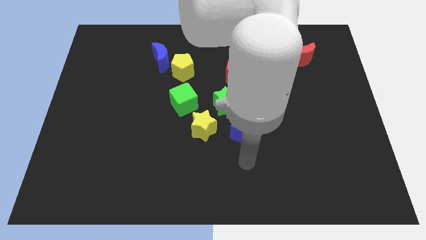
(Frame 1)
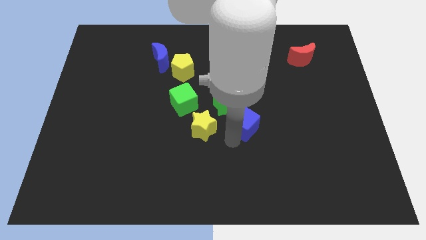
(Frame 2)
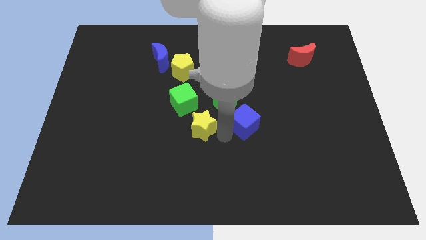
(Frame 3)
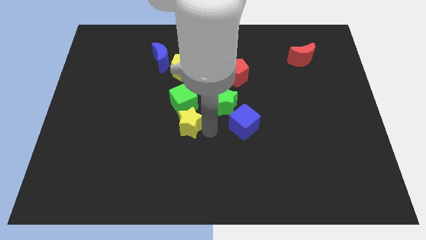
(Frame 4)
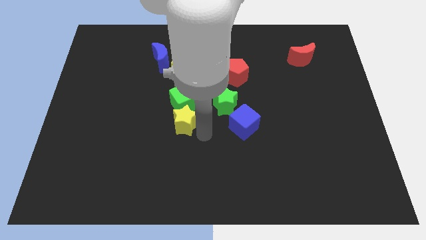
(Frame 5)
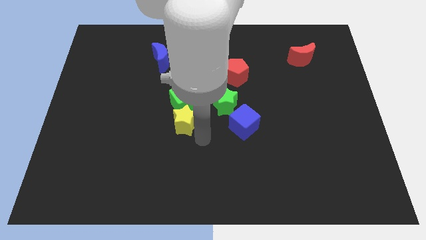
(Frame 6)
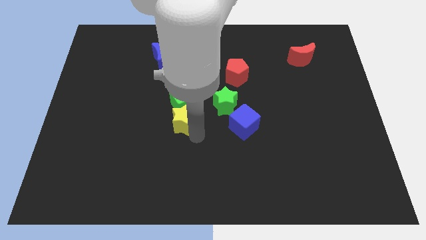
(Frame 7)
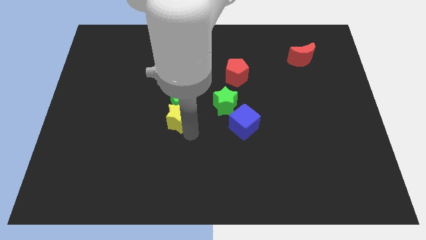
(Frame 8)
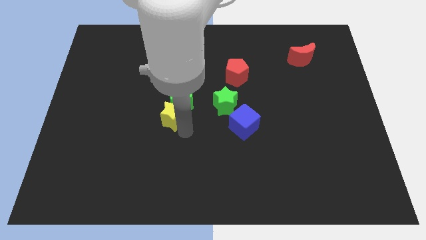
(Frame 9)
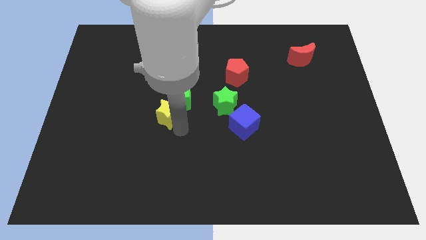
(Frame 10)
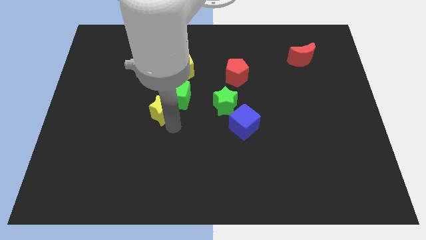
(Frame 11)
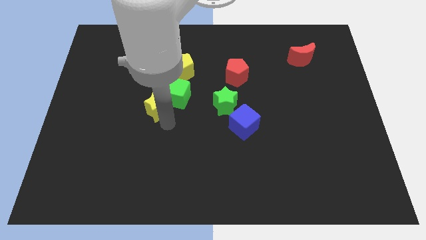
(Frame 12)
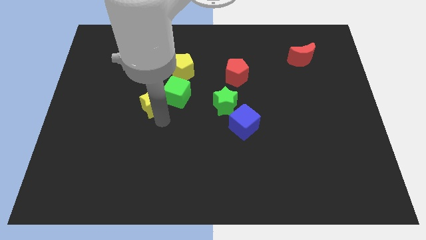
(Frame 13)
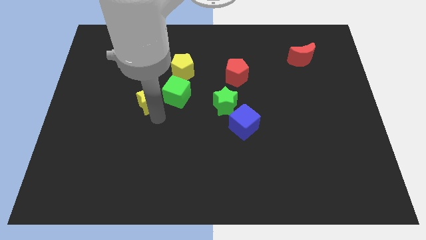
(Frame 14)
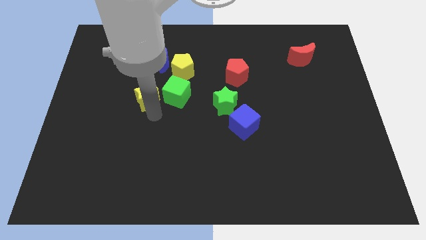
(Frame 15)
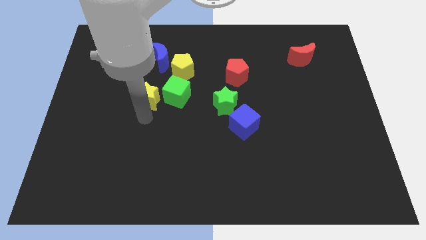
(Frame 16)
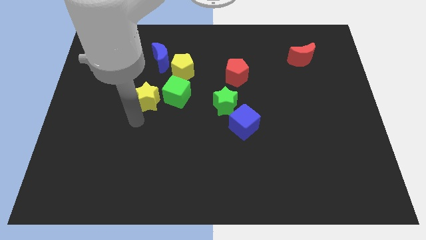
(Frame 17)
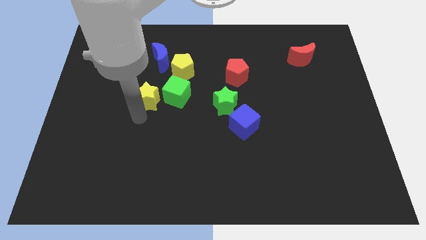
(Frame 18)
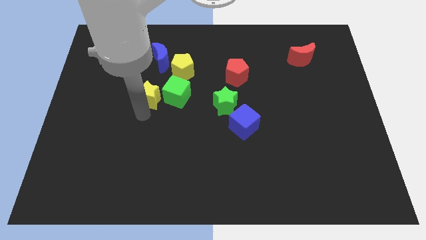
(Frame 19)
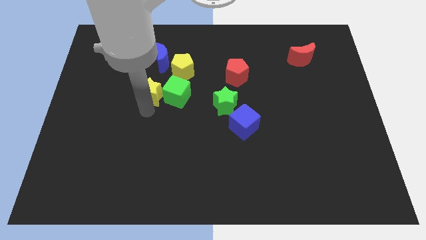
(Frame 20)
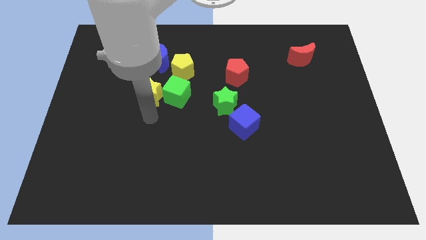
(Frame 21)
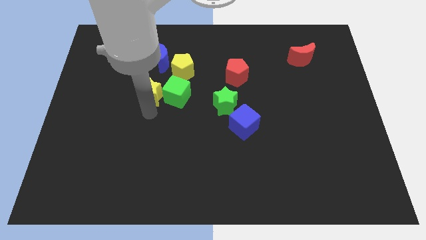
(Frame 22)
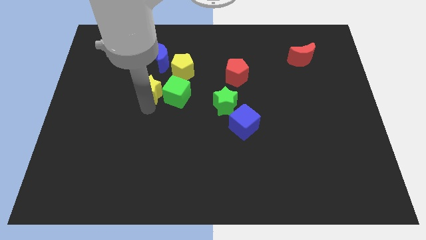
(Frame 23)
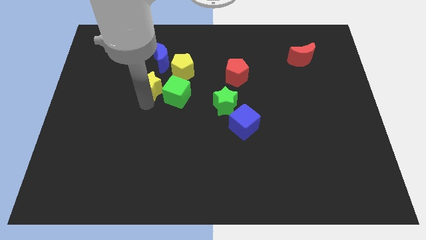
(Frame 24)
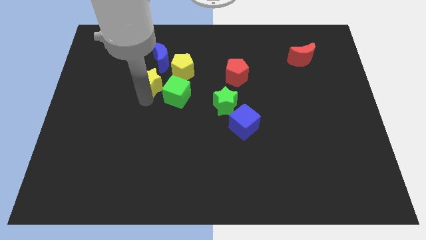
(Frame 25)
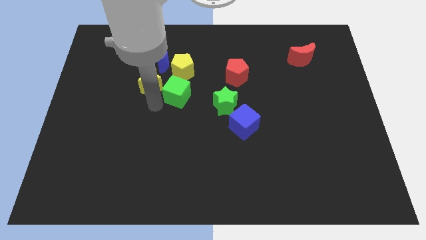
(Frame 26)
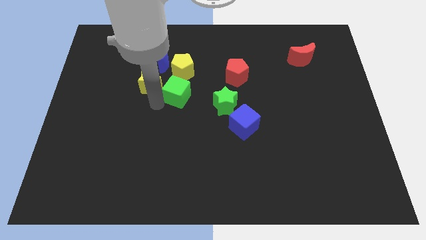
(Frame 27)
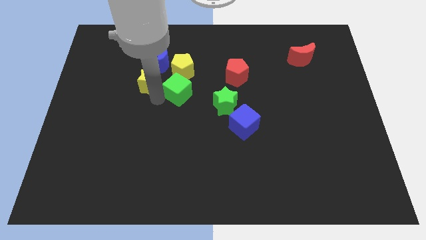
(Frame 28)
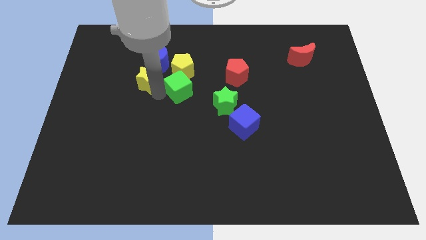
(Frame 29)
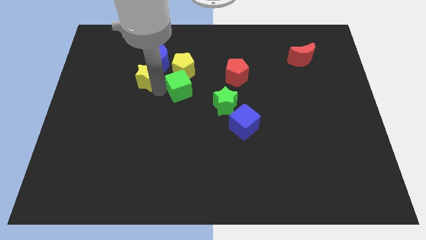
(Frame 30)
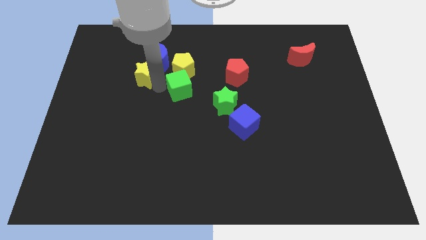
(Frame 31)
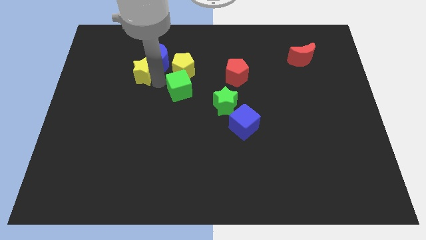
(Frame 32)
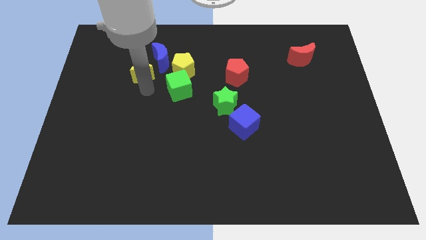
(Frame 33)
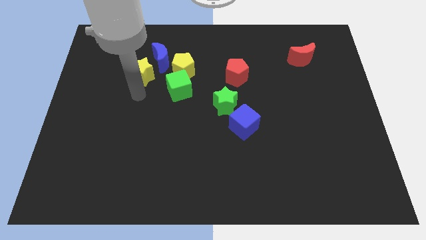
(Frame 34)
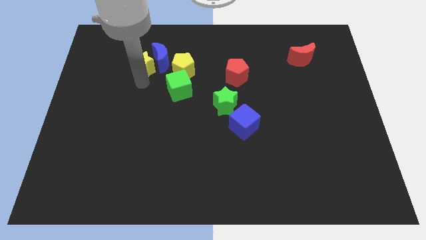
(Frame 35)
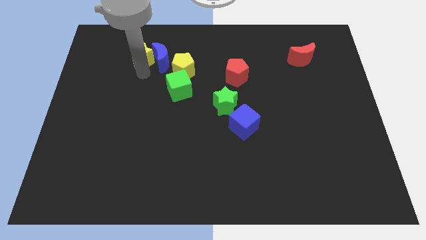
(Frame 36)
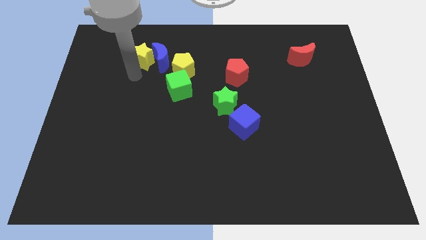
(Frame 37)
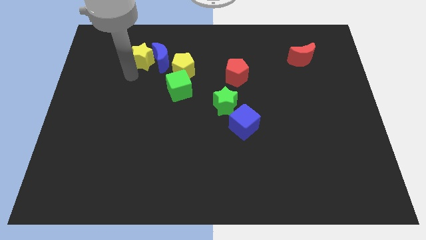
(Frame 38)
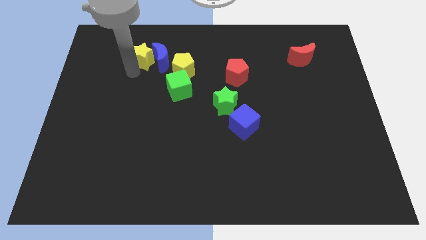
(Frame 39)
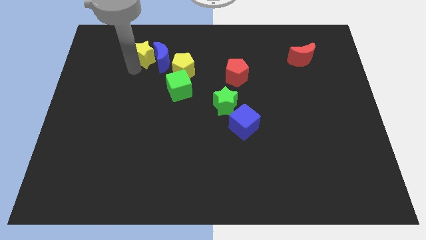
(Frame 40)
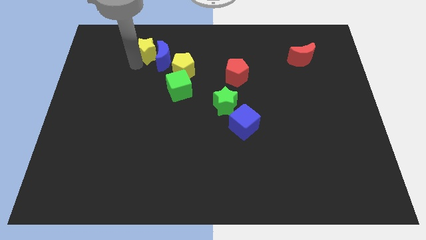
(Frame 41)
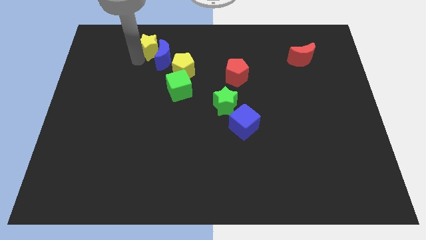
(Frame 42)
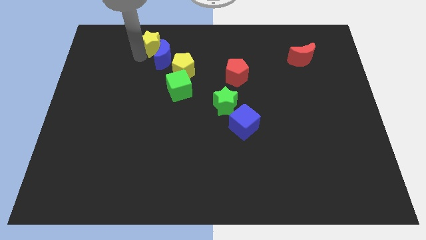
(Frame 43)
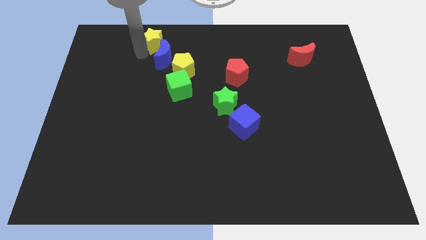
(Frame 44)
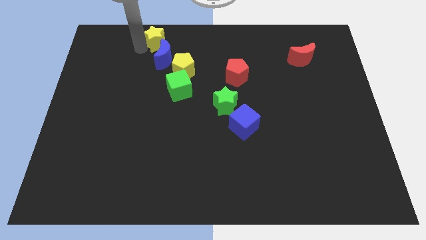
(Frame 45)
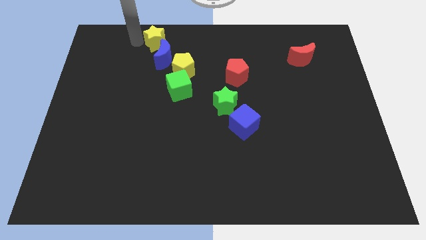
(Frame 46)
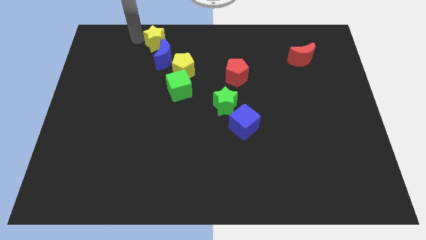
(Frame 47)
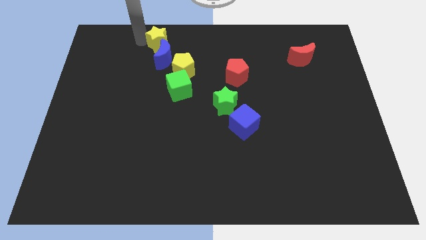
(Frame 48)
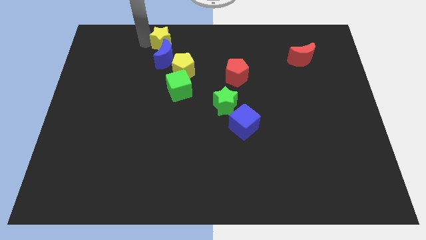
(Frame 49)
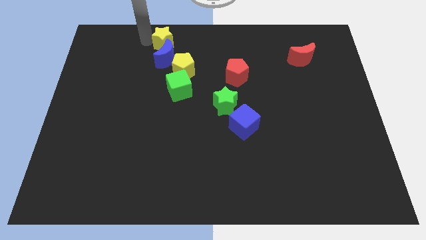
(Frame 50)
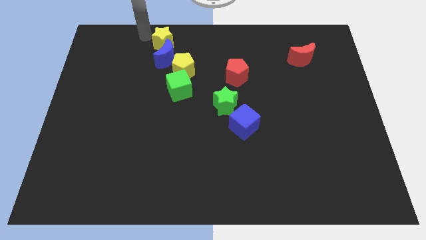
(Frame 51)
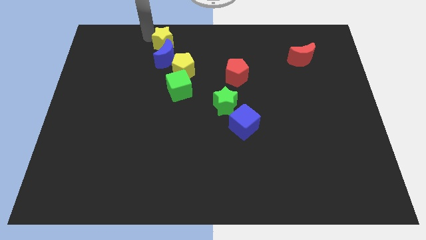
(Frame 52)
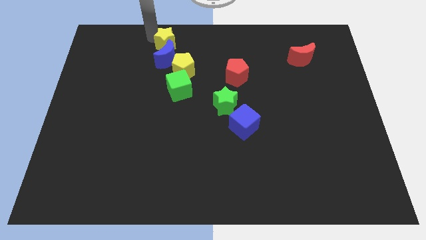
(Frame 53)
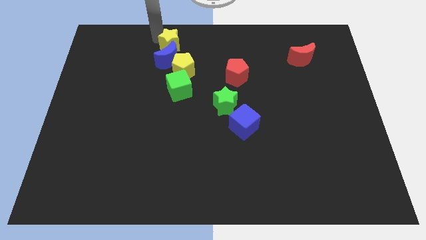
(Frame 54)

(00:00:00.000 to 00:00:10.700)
push the yellow star a little upwards

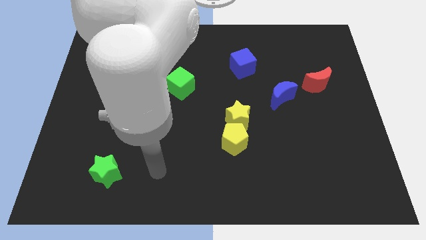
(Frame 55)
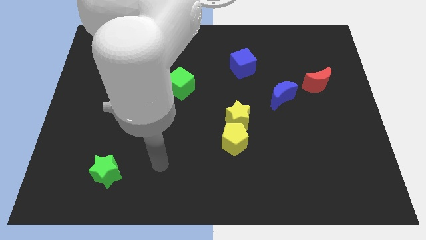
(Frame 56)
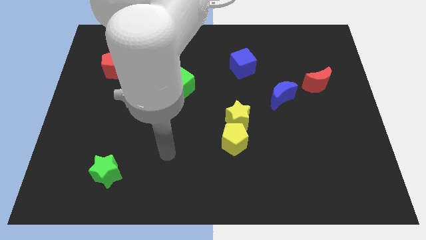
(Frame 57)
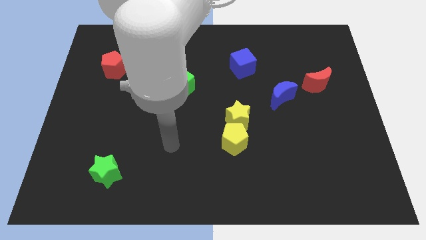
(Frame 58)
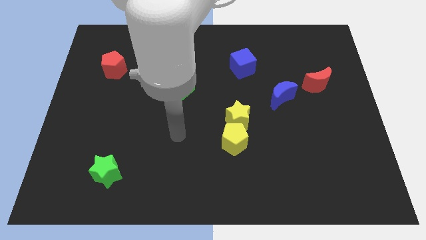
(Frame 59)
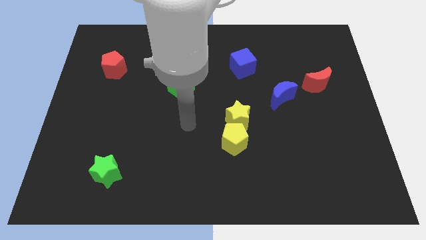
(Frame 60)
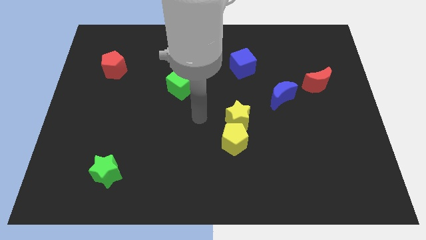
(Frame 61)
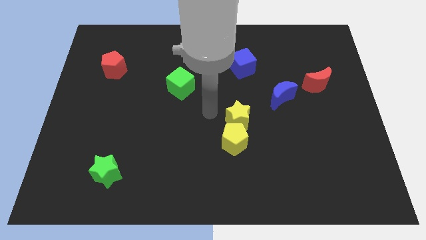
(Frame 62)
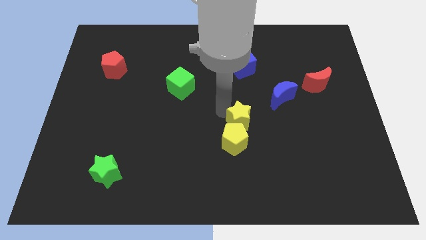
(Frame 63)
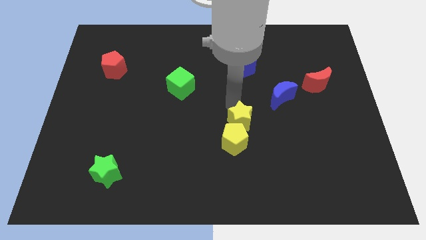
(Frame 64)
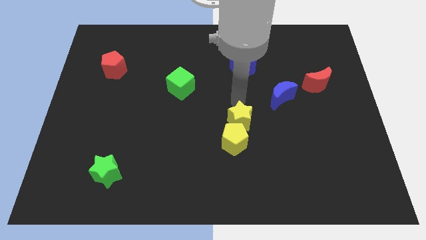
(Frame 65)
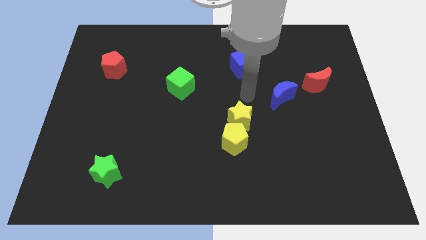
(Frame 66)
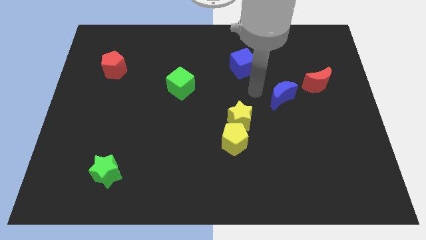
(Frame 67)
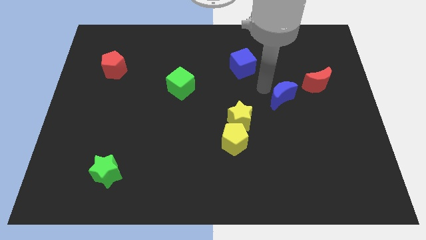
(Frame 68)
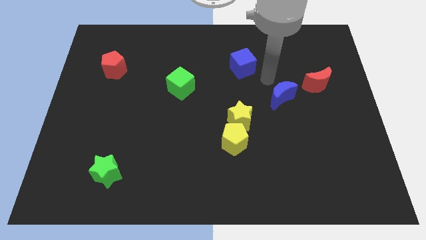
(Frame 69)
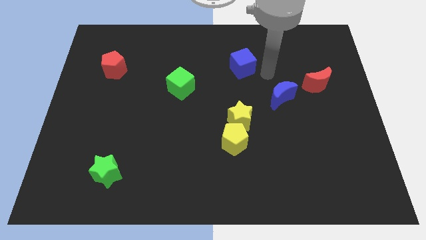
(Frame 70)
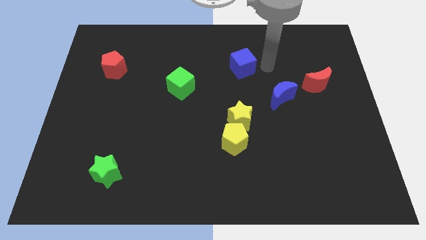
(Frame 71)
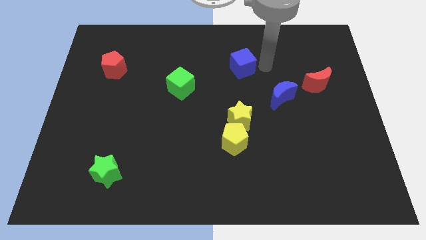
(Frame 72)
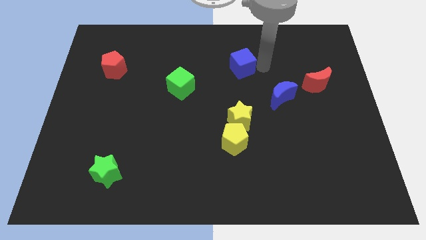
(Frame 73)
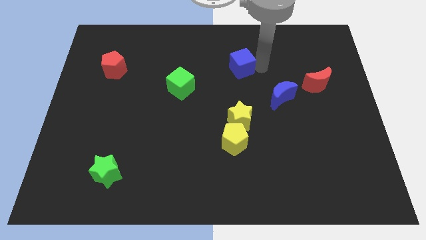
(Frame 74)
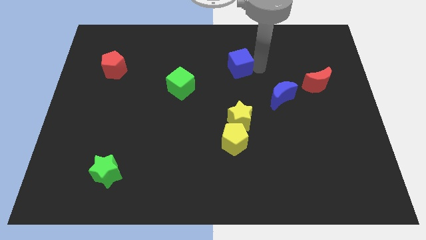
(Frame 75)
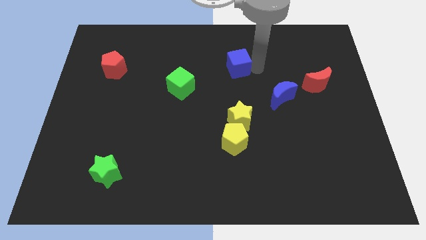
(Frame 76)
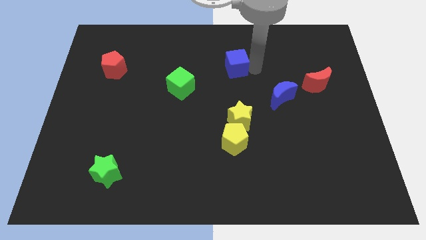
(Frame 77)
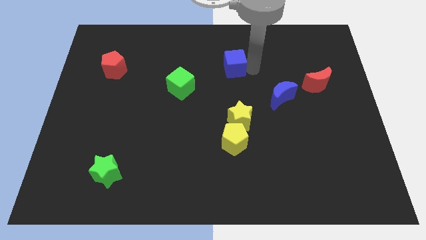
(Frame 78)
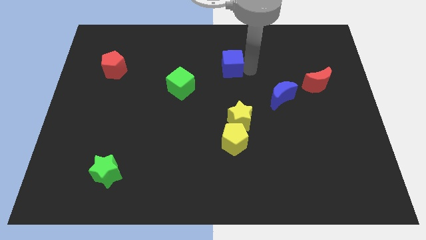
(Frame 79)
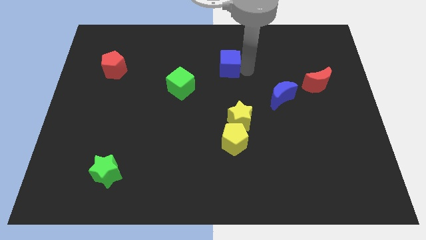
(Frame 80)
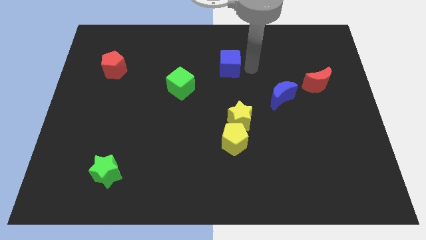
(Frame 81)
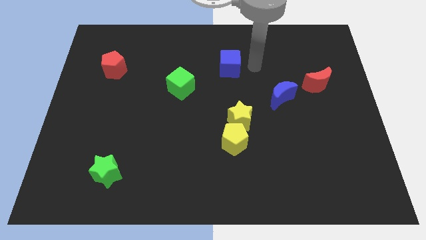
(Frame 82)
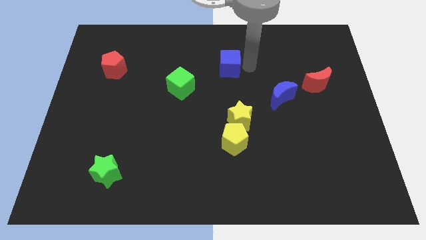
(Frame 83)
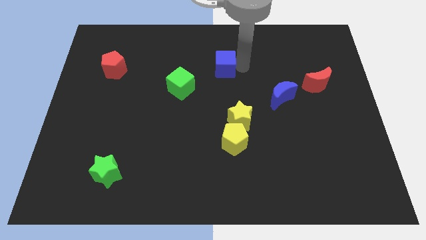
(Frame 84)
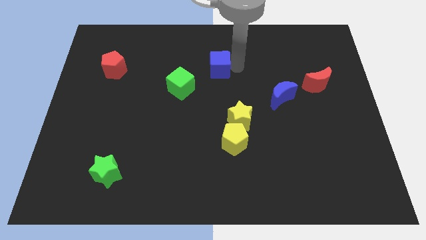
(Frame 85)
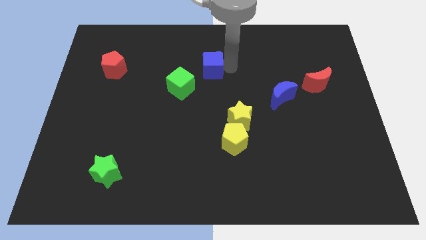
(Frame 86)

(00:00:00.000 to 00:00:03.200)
push the blue cube slightly to the left
